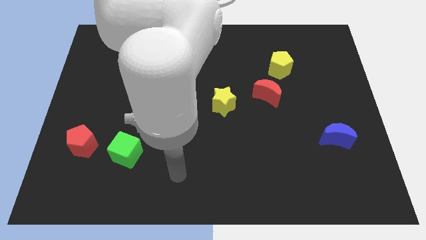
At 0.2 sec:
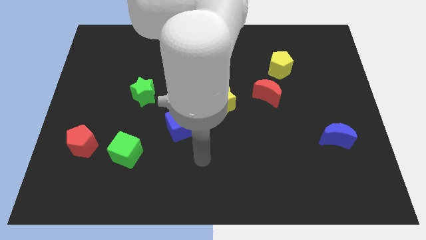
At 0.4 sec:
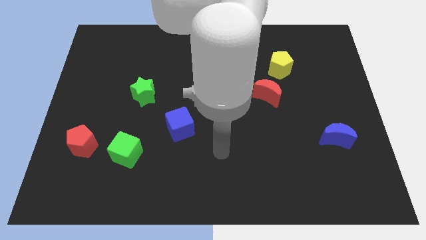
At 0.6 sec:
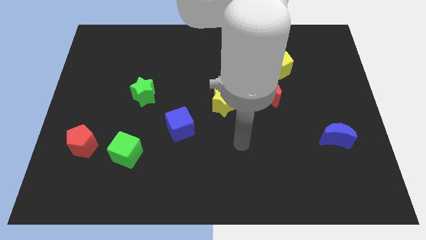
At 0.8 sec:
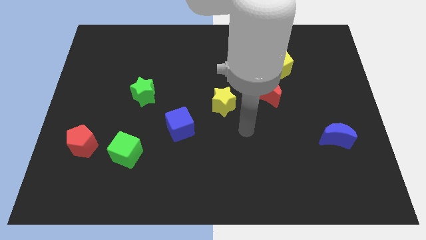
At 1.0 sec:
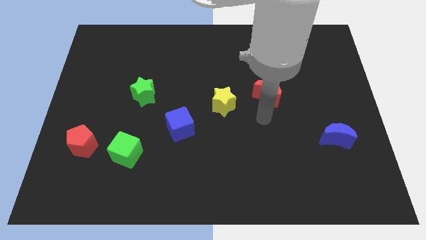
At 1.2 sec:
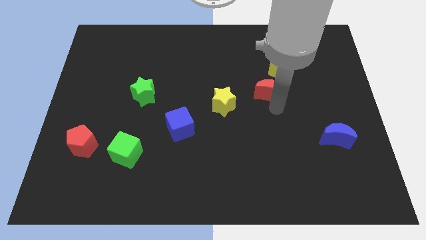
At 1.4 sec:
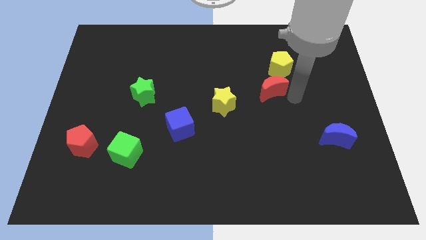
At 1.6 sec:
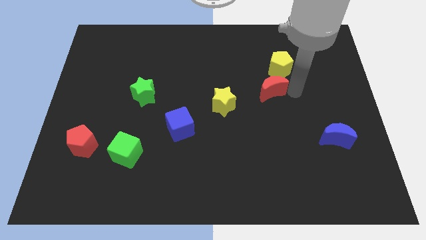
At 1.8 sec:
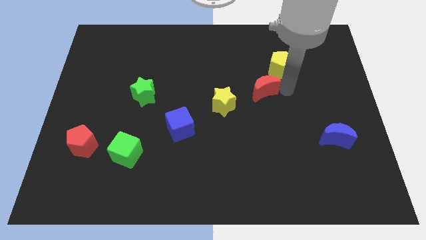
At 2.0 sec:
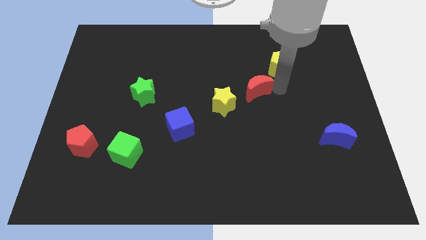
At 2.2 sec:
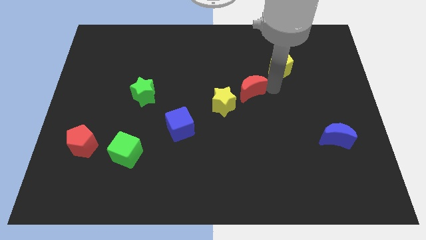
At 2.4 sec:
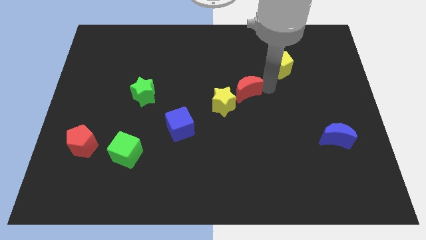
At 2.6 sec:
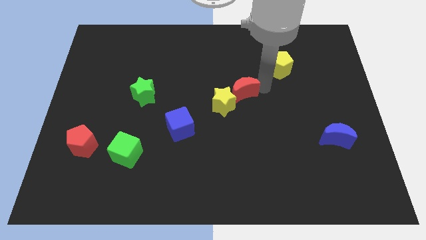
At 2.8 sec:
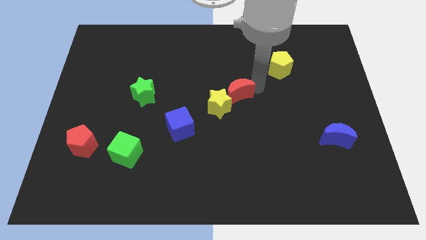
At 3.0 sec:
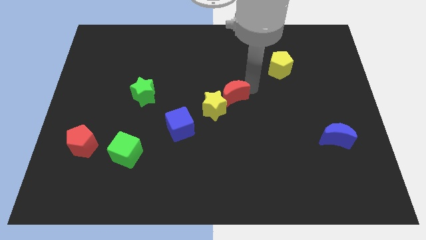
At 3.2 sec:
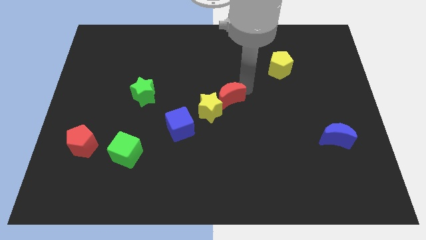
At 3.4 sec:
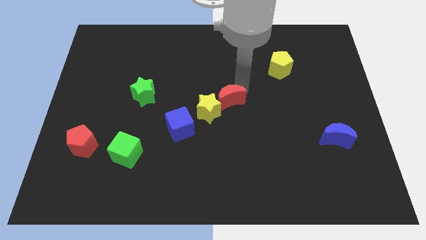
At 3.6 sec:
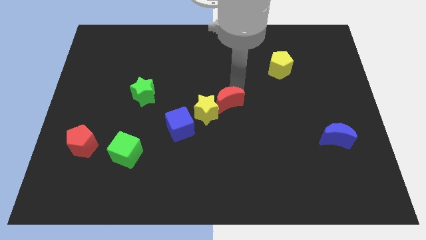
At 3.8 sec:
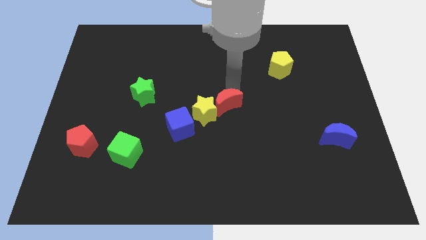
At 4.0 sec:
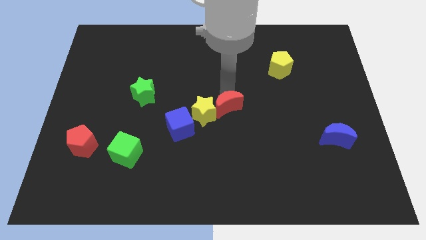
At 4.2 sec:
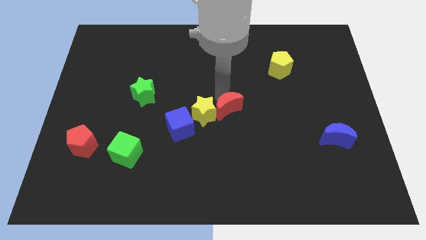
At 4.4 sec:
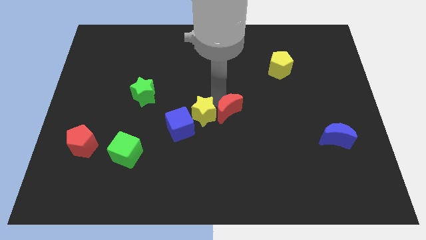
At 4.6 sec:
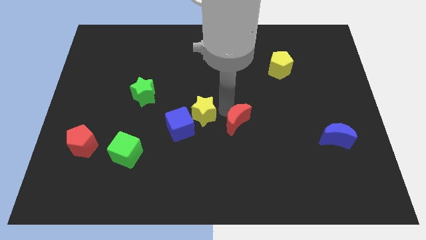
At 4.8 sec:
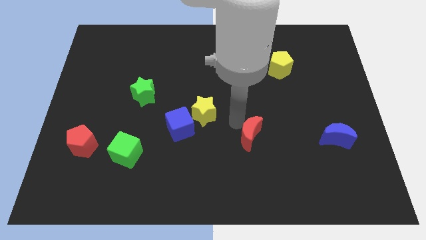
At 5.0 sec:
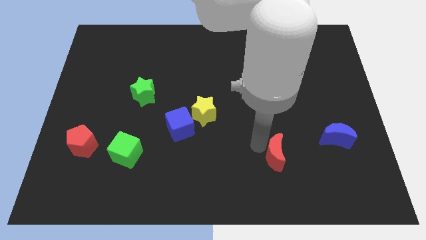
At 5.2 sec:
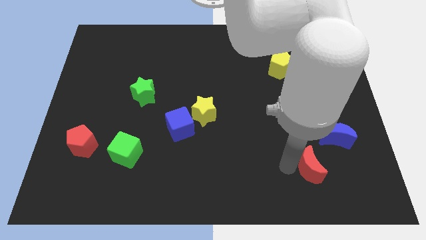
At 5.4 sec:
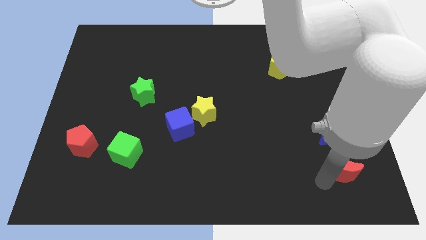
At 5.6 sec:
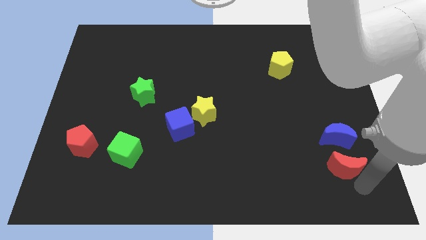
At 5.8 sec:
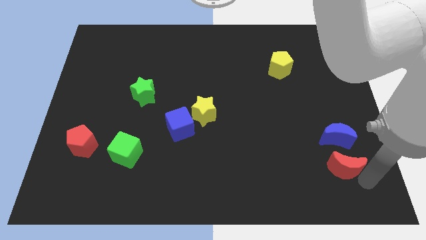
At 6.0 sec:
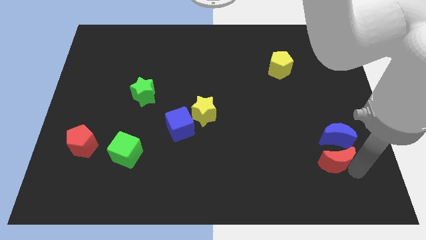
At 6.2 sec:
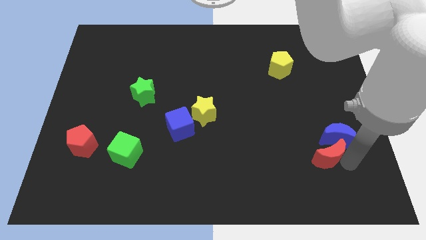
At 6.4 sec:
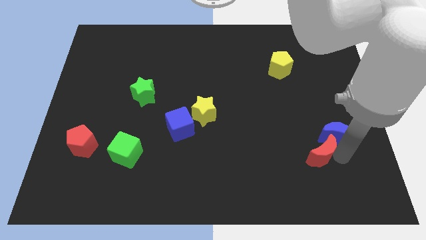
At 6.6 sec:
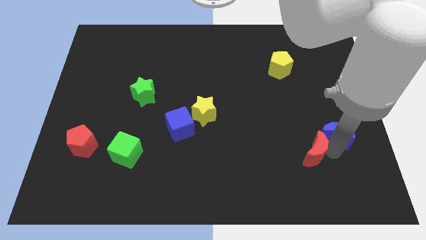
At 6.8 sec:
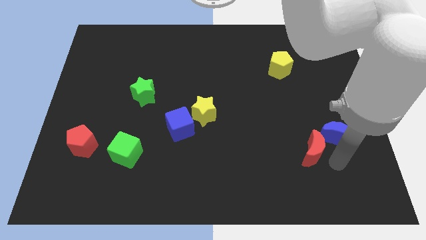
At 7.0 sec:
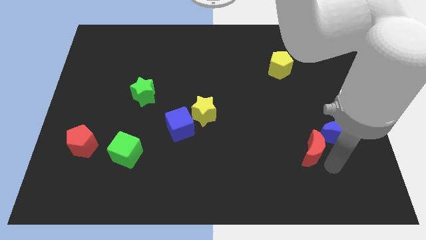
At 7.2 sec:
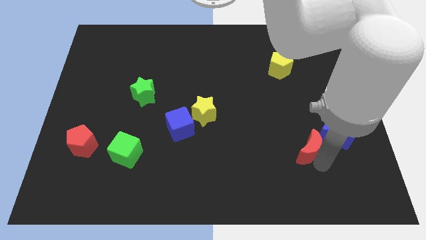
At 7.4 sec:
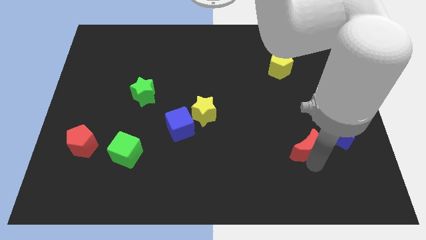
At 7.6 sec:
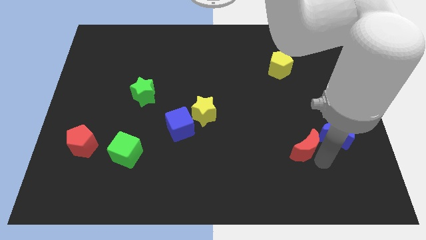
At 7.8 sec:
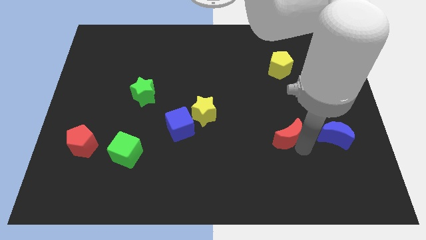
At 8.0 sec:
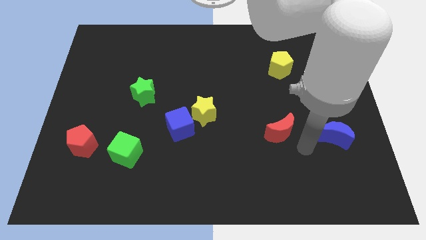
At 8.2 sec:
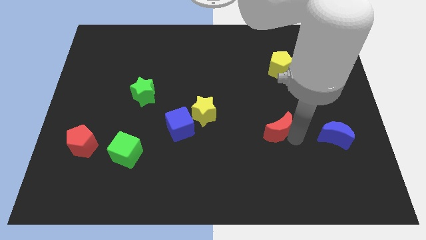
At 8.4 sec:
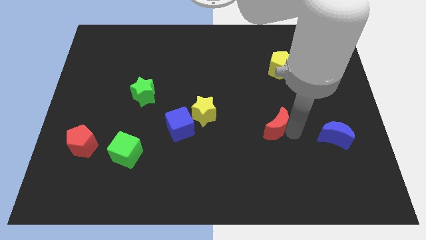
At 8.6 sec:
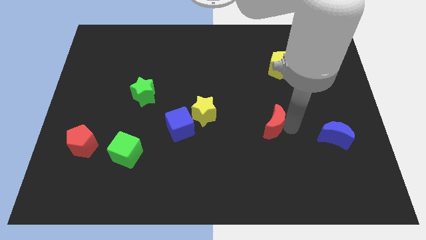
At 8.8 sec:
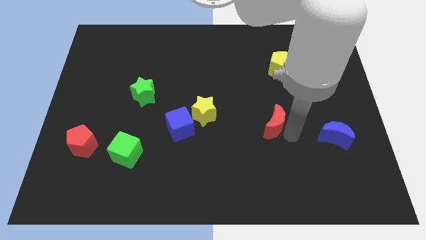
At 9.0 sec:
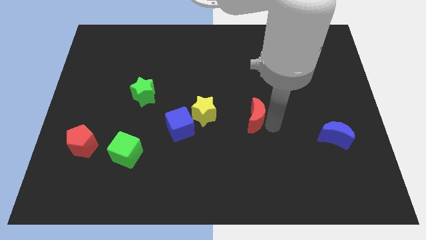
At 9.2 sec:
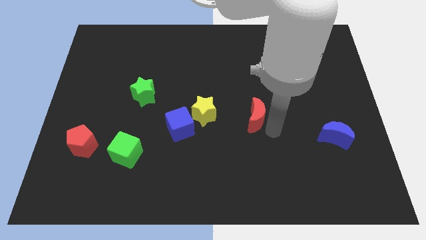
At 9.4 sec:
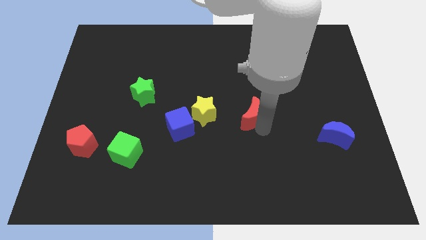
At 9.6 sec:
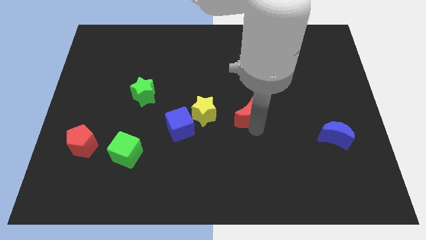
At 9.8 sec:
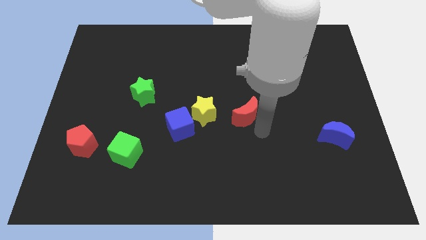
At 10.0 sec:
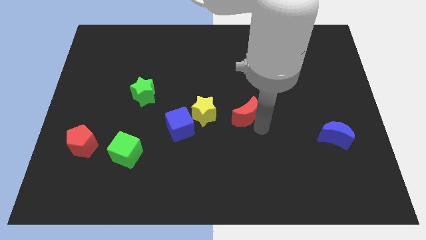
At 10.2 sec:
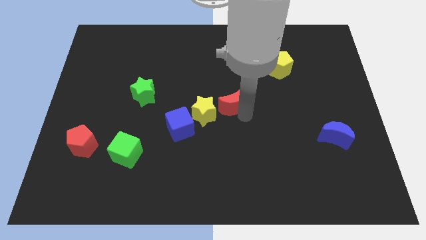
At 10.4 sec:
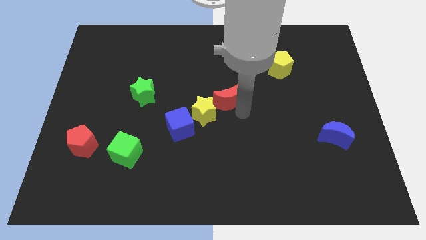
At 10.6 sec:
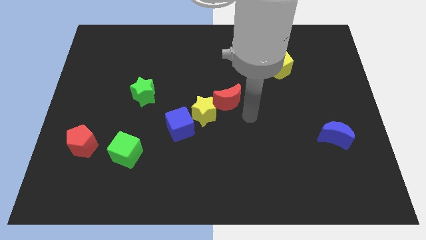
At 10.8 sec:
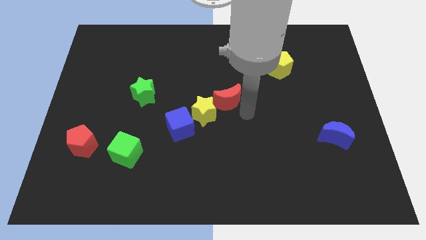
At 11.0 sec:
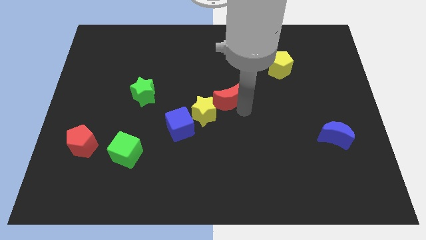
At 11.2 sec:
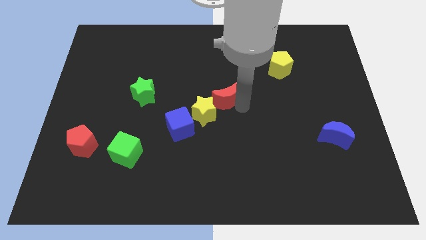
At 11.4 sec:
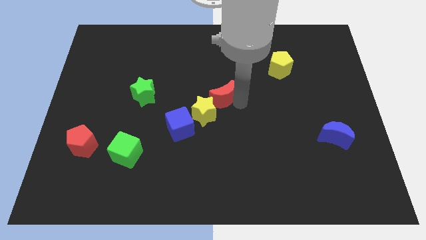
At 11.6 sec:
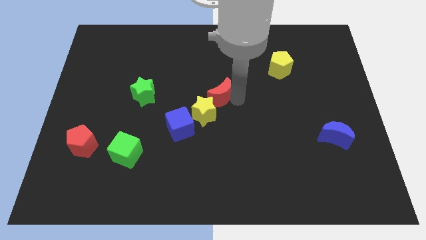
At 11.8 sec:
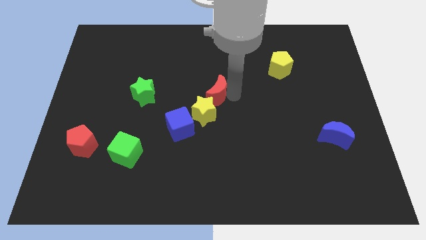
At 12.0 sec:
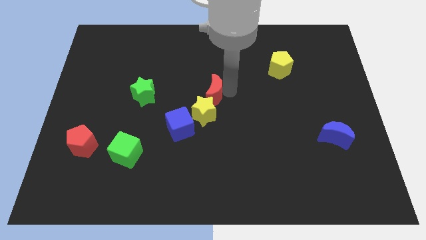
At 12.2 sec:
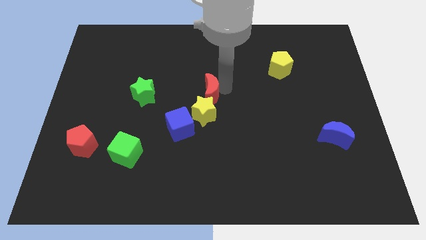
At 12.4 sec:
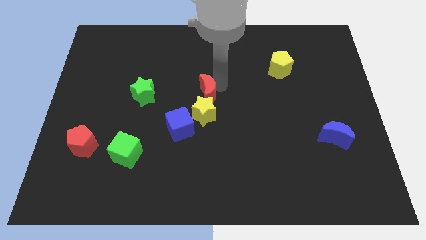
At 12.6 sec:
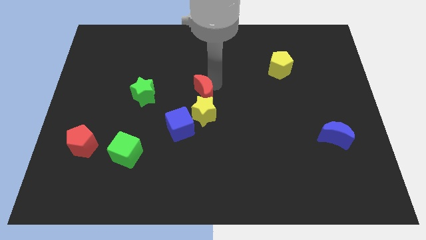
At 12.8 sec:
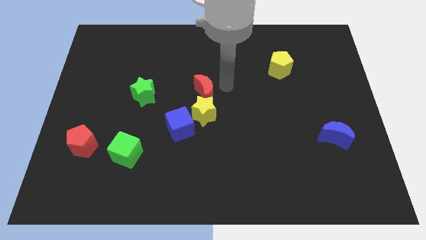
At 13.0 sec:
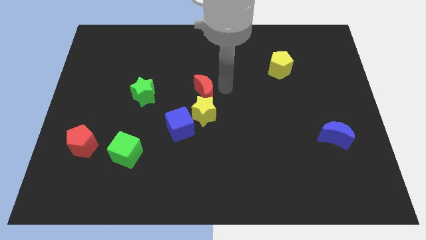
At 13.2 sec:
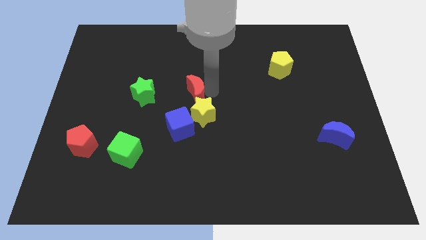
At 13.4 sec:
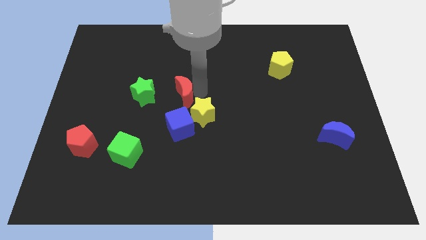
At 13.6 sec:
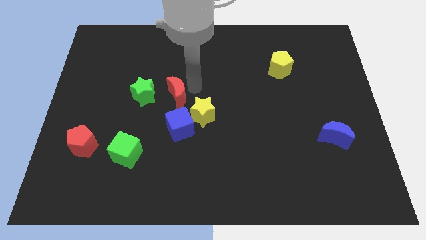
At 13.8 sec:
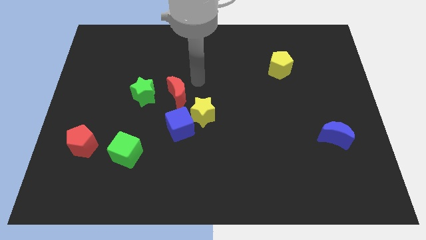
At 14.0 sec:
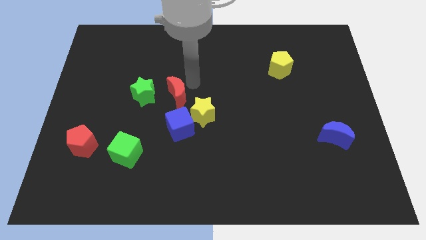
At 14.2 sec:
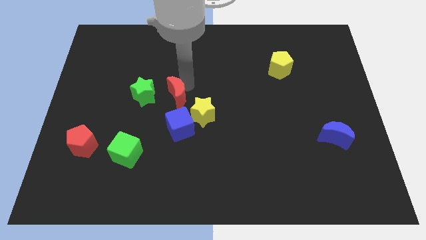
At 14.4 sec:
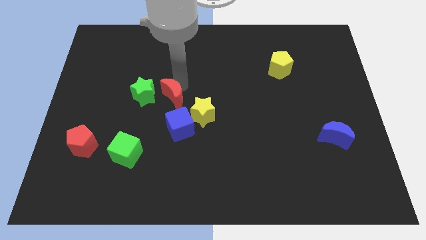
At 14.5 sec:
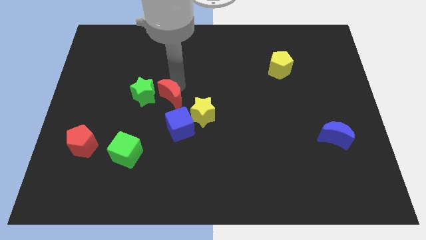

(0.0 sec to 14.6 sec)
put the red moon diagonally up and to the left of the blue cube
